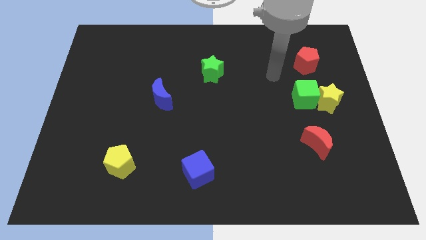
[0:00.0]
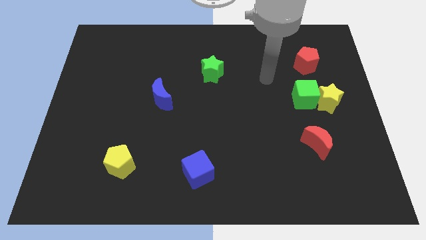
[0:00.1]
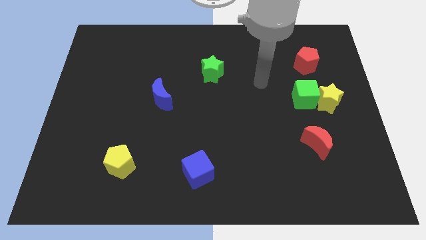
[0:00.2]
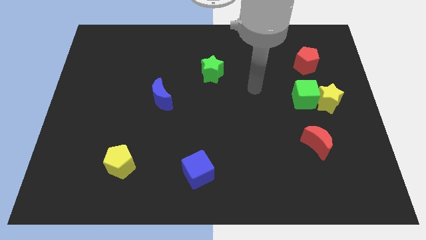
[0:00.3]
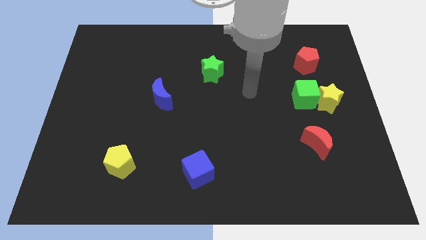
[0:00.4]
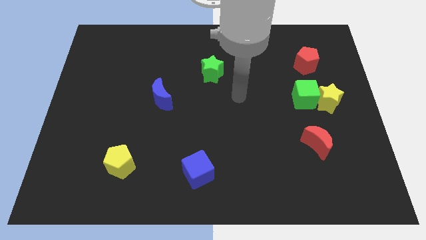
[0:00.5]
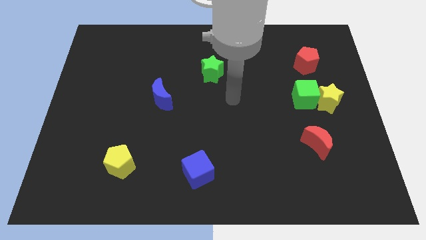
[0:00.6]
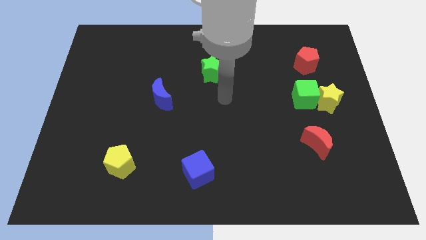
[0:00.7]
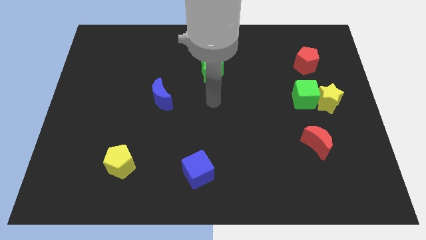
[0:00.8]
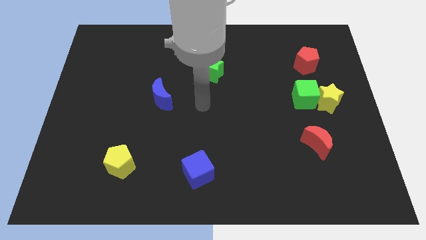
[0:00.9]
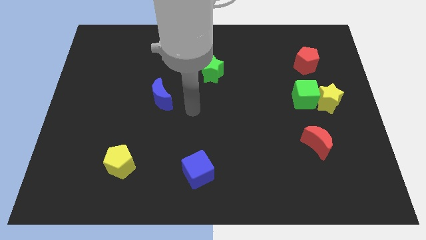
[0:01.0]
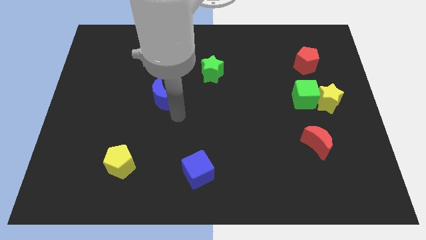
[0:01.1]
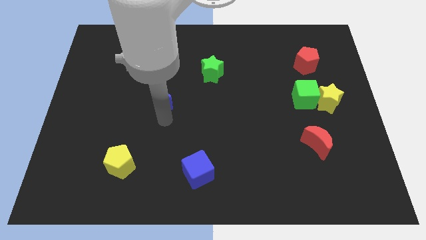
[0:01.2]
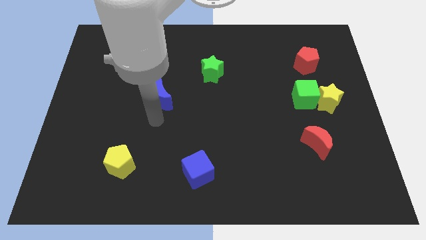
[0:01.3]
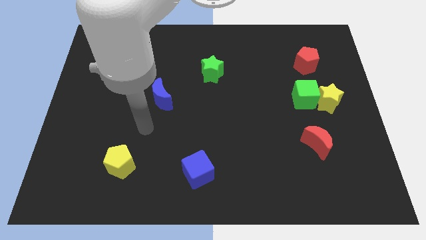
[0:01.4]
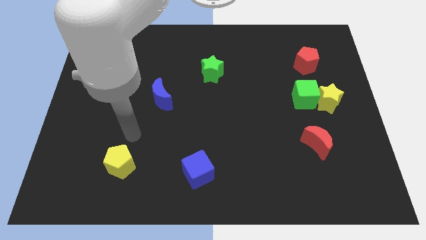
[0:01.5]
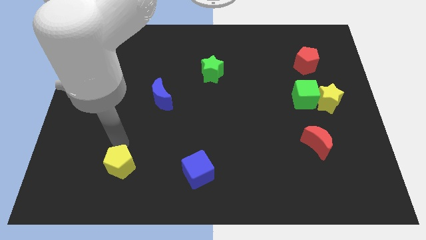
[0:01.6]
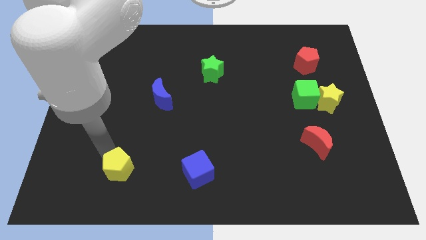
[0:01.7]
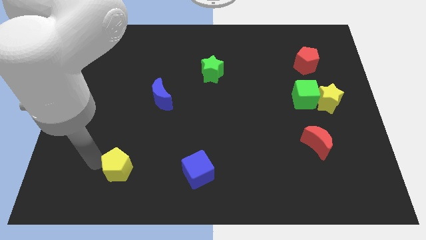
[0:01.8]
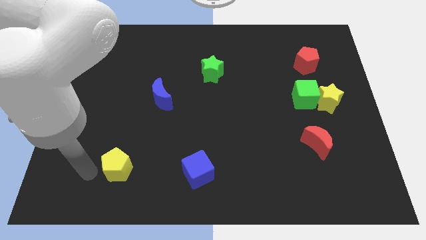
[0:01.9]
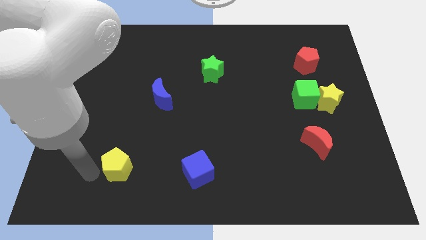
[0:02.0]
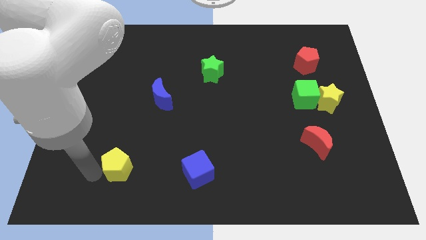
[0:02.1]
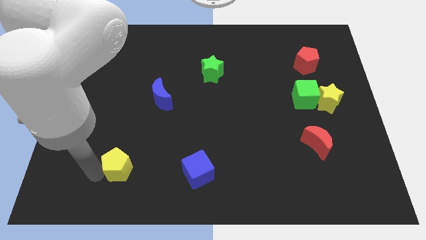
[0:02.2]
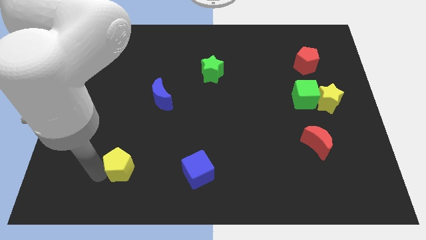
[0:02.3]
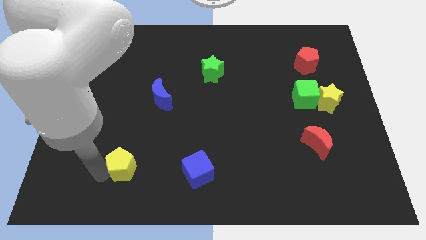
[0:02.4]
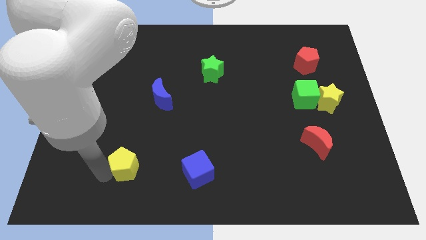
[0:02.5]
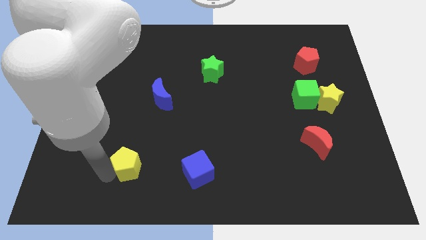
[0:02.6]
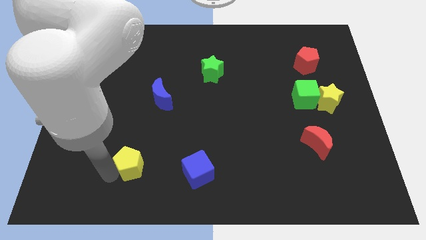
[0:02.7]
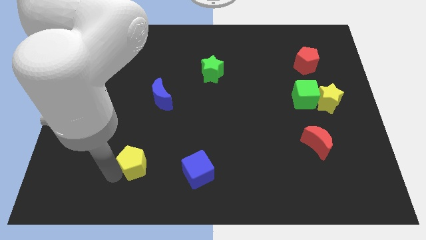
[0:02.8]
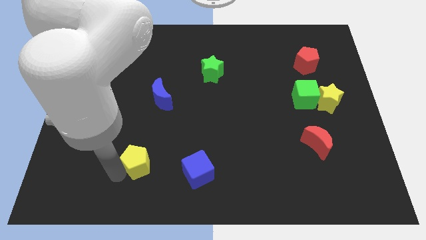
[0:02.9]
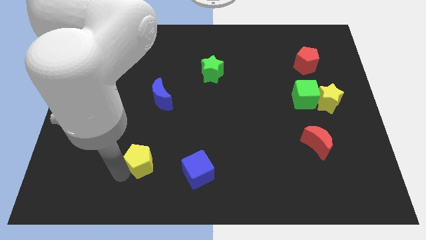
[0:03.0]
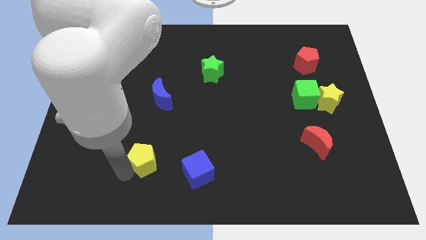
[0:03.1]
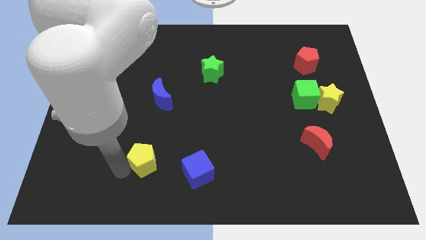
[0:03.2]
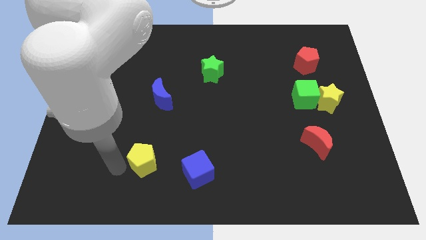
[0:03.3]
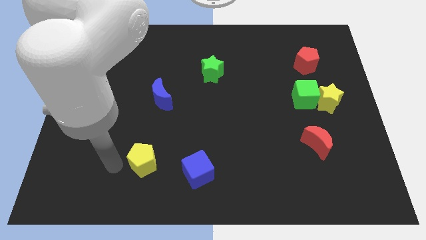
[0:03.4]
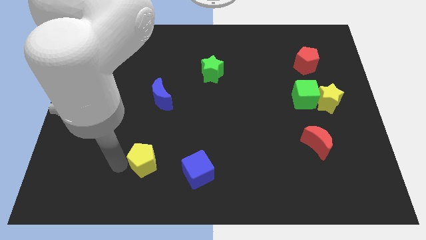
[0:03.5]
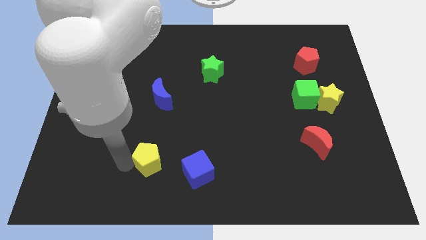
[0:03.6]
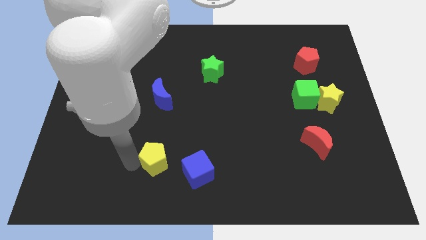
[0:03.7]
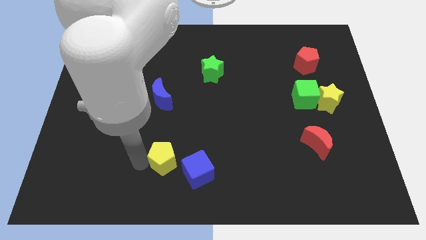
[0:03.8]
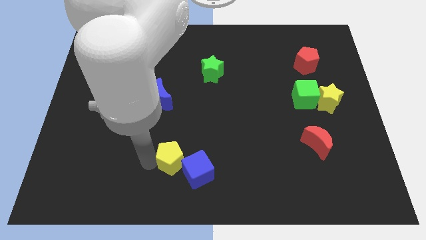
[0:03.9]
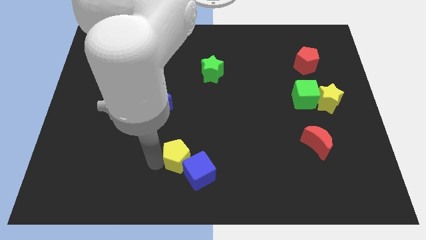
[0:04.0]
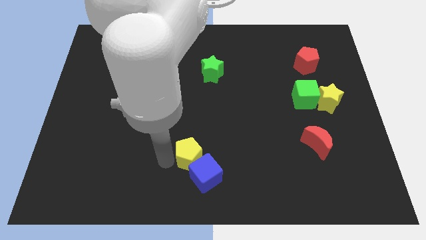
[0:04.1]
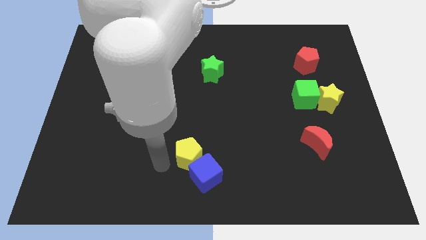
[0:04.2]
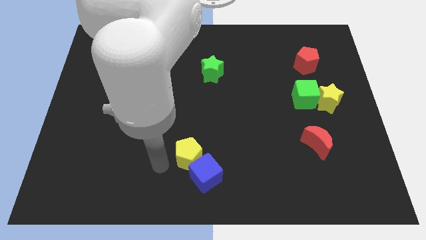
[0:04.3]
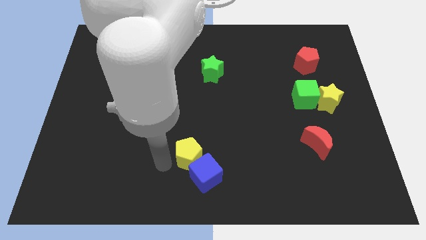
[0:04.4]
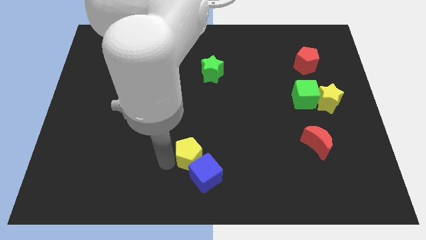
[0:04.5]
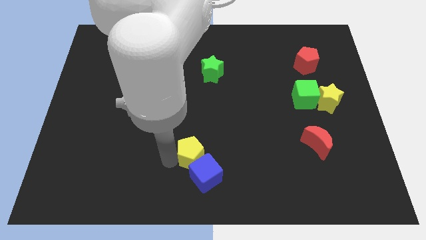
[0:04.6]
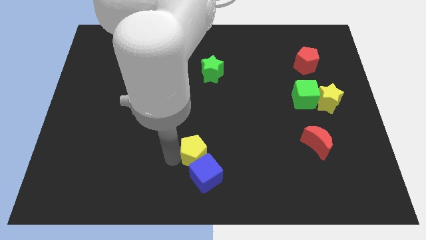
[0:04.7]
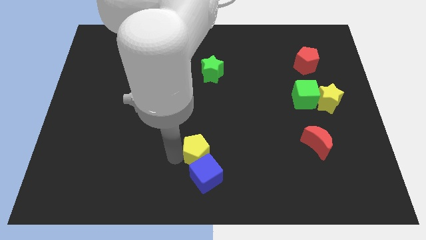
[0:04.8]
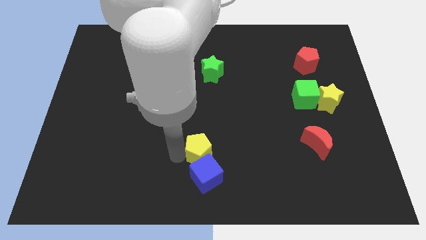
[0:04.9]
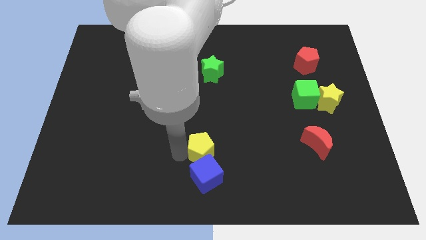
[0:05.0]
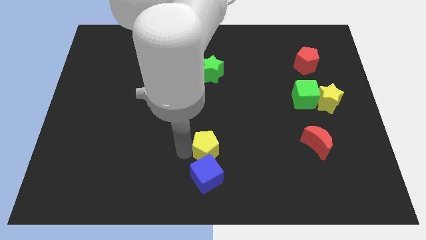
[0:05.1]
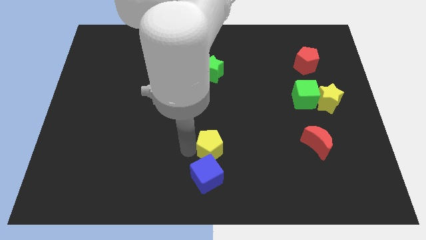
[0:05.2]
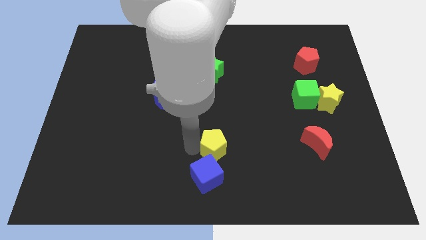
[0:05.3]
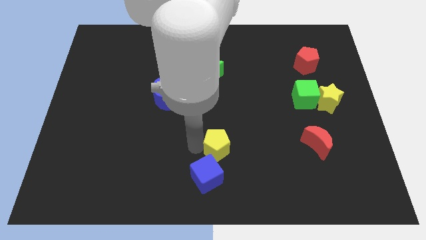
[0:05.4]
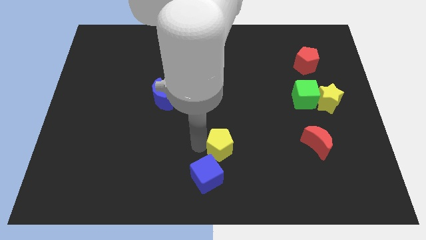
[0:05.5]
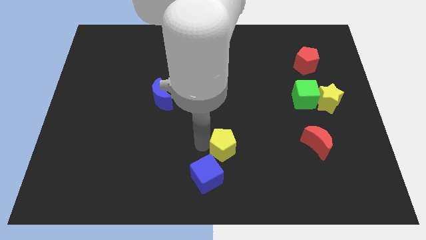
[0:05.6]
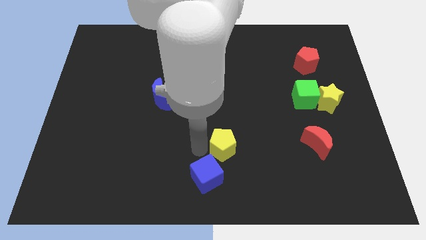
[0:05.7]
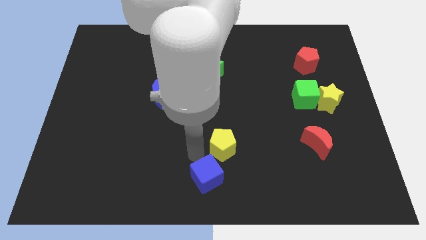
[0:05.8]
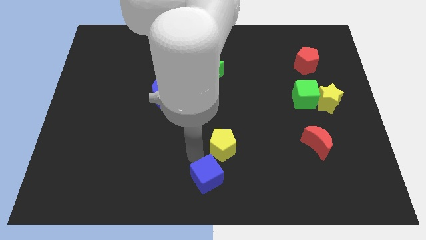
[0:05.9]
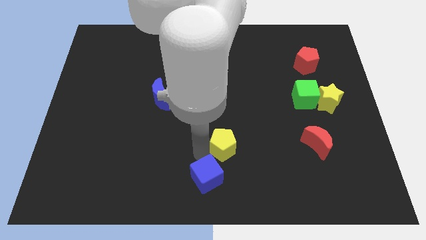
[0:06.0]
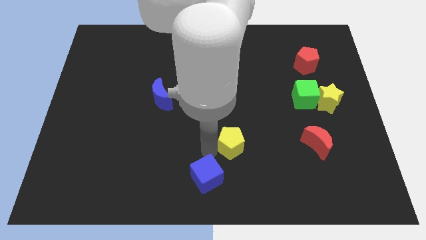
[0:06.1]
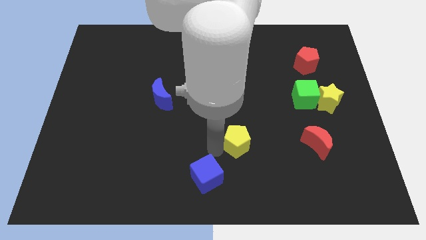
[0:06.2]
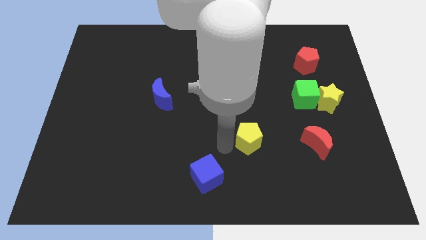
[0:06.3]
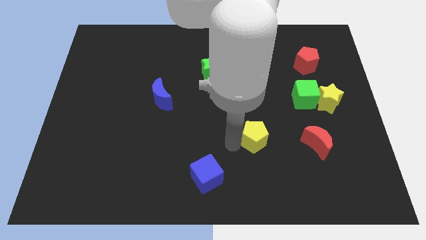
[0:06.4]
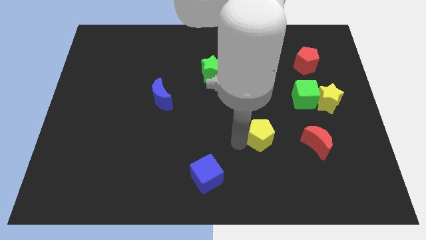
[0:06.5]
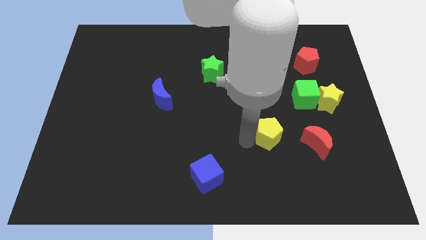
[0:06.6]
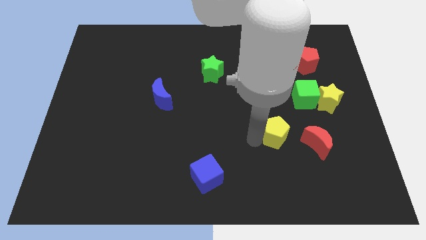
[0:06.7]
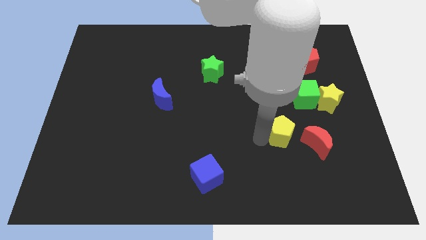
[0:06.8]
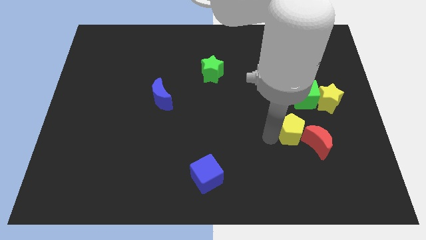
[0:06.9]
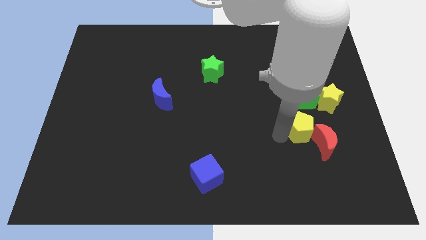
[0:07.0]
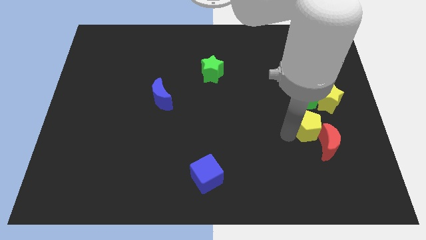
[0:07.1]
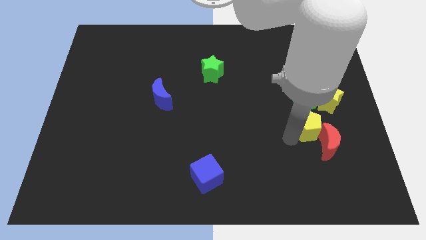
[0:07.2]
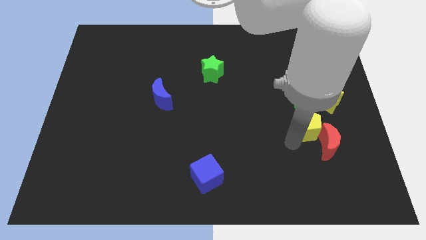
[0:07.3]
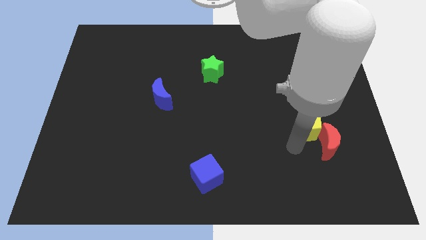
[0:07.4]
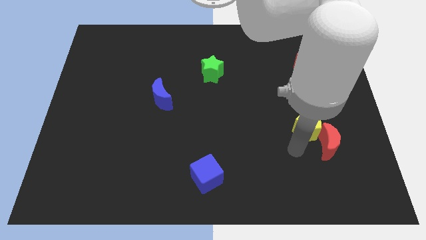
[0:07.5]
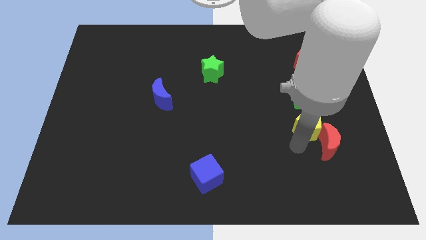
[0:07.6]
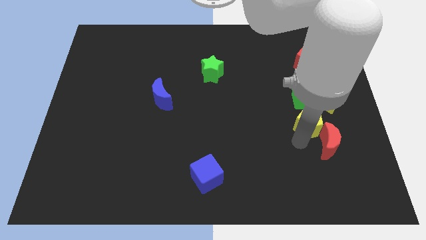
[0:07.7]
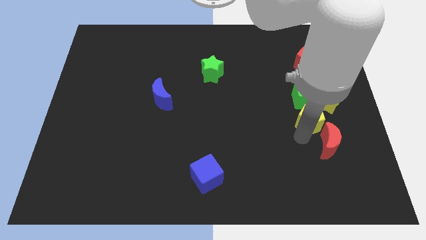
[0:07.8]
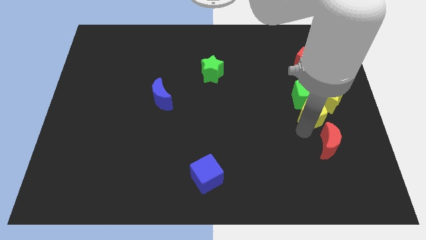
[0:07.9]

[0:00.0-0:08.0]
slide the yellow pentagon next to the yellow star

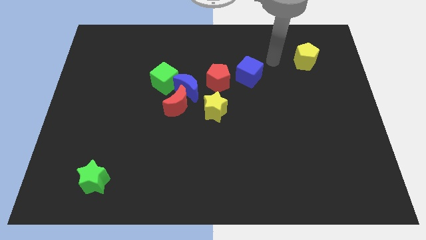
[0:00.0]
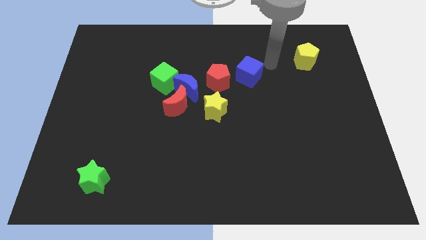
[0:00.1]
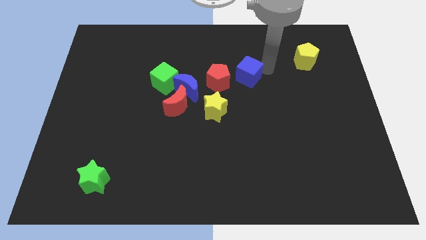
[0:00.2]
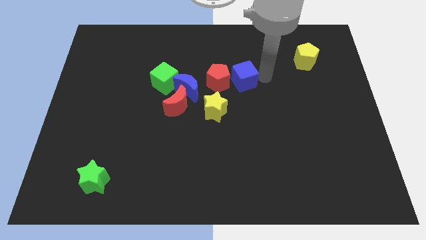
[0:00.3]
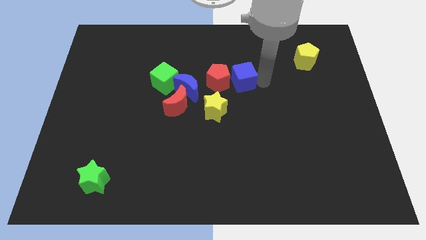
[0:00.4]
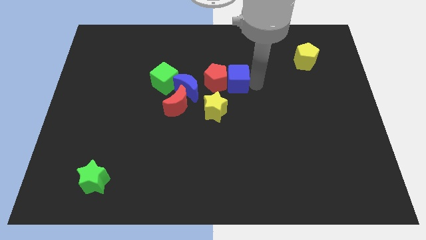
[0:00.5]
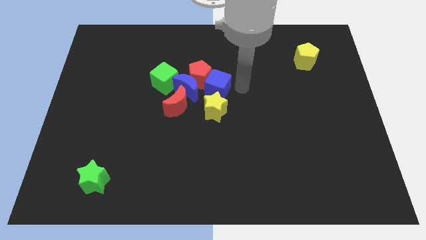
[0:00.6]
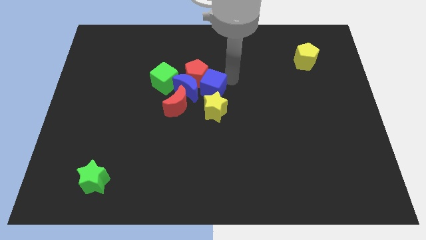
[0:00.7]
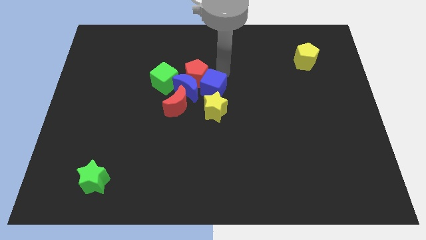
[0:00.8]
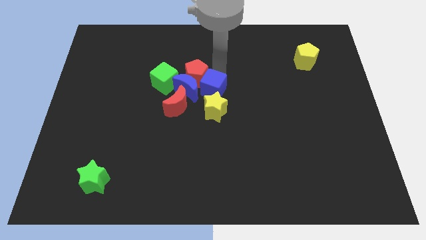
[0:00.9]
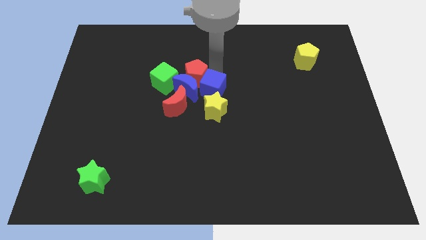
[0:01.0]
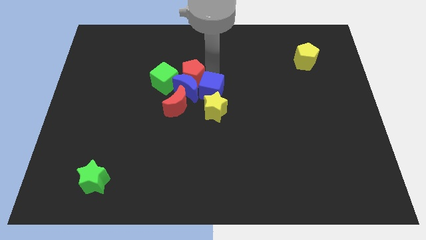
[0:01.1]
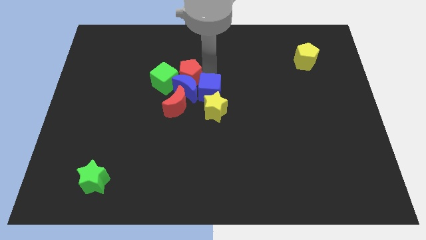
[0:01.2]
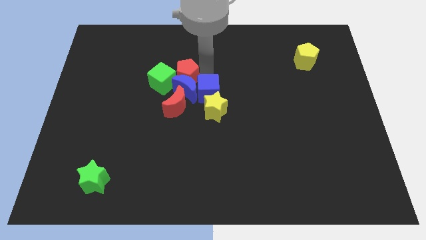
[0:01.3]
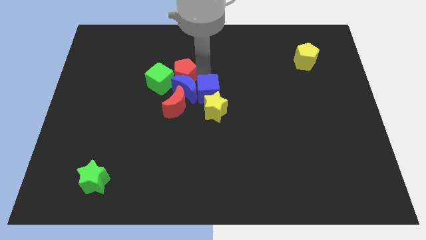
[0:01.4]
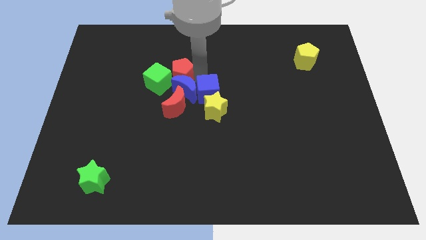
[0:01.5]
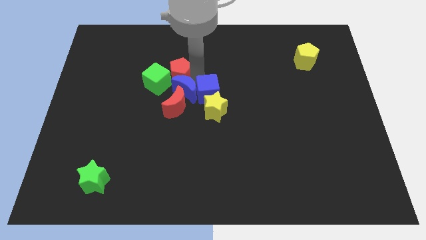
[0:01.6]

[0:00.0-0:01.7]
put the red pentagon next to the green cube
